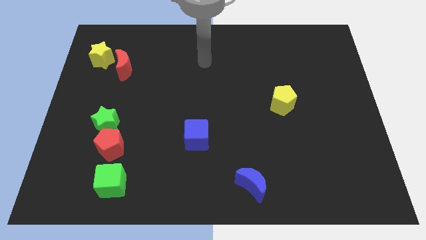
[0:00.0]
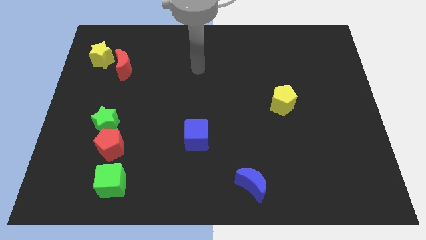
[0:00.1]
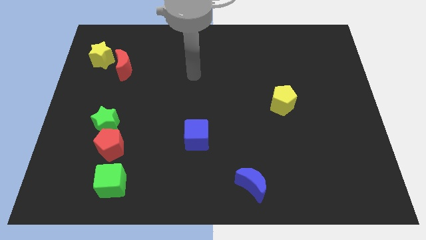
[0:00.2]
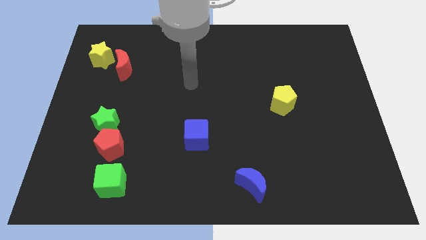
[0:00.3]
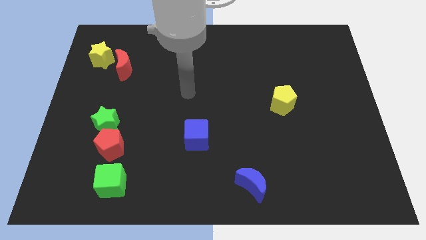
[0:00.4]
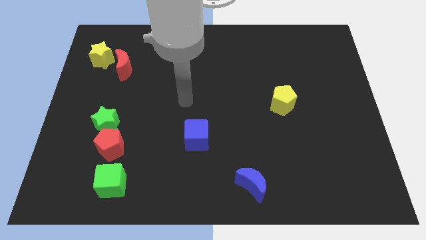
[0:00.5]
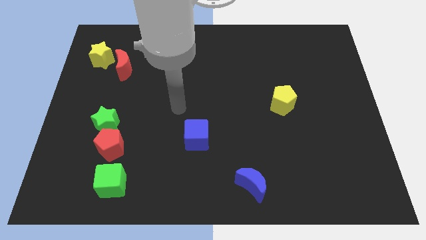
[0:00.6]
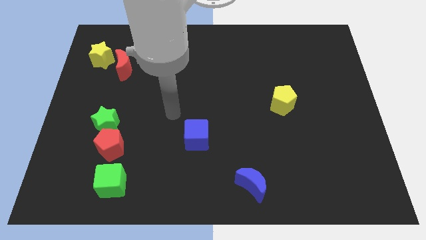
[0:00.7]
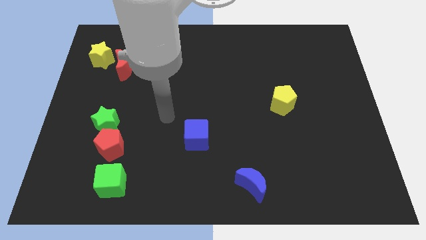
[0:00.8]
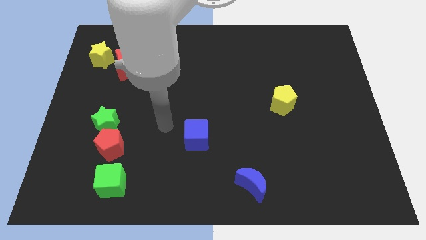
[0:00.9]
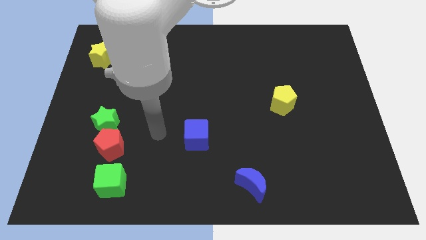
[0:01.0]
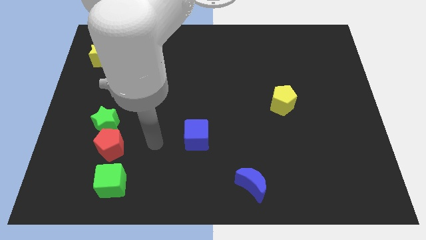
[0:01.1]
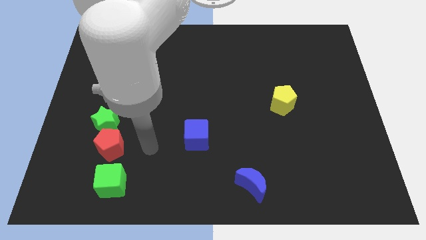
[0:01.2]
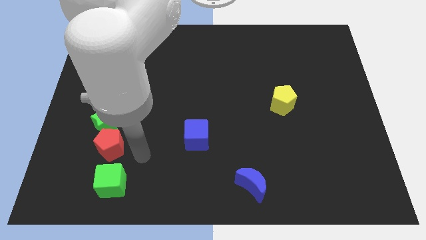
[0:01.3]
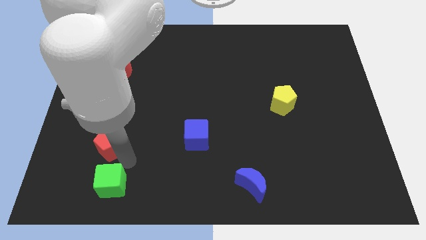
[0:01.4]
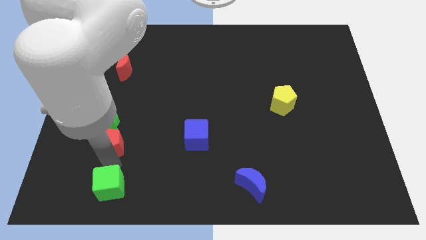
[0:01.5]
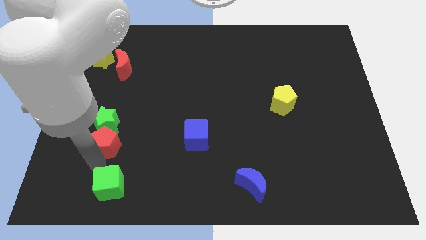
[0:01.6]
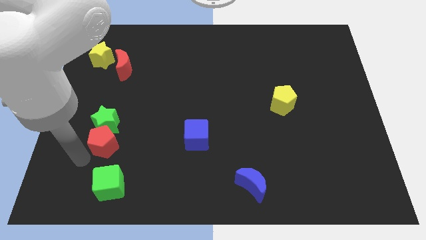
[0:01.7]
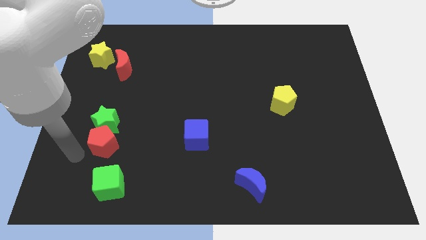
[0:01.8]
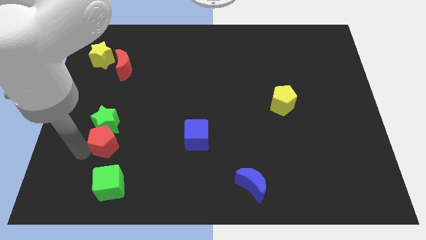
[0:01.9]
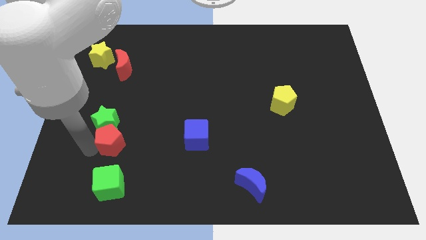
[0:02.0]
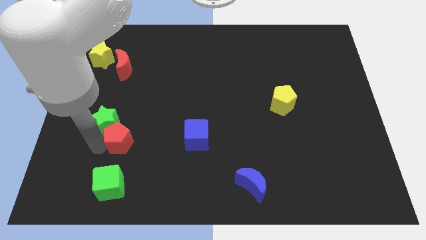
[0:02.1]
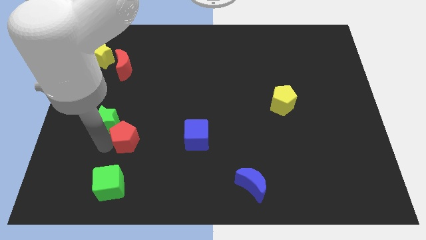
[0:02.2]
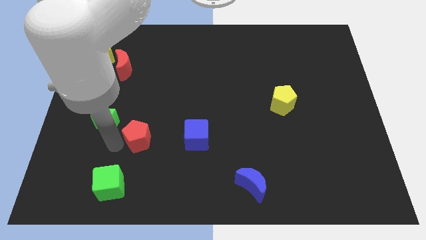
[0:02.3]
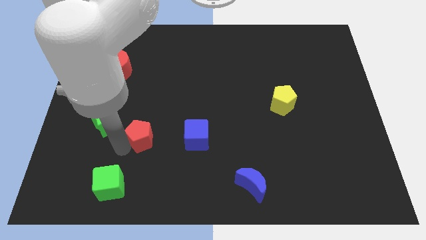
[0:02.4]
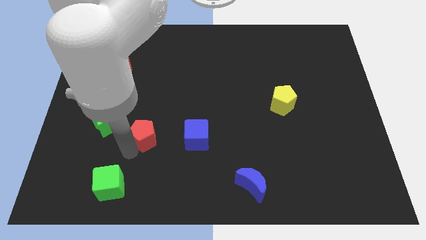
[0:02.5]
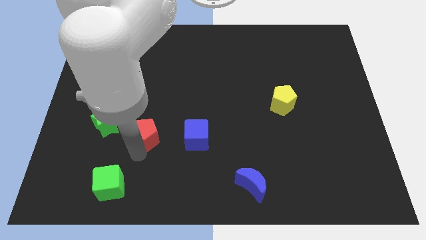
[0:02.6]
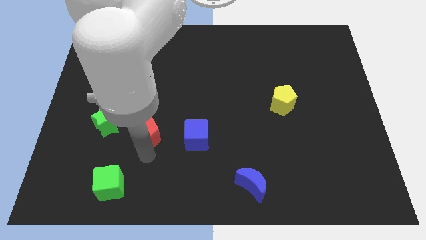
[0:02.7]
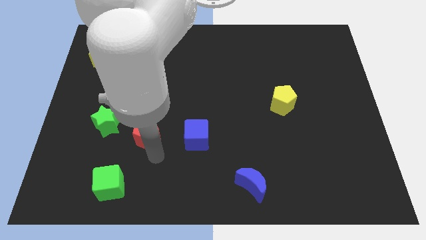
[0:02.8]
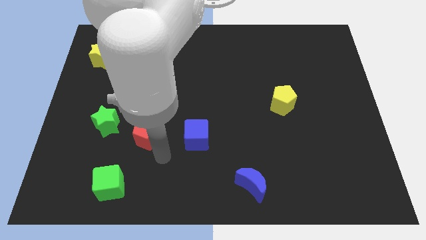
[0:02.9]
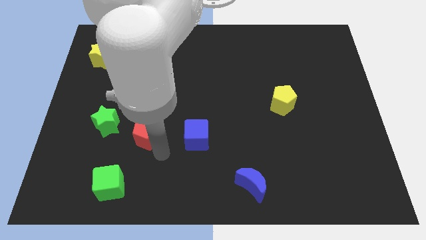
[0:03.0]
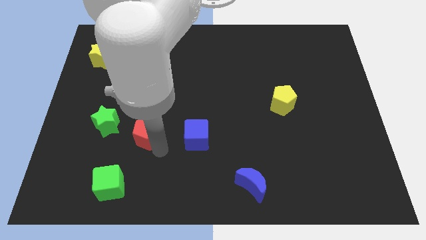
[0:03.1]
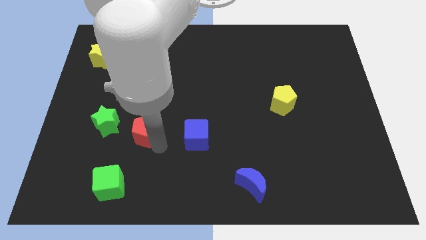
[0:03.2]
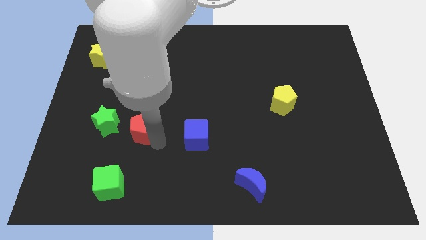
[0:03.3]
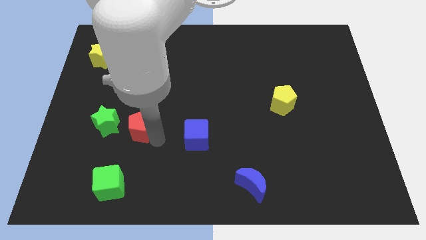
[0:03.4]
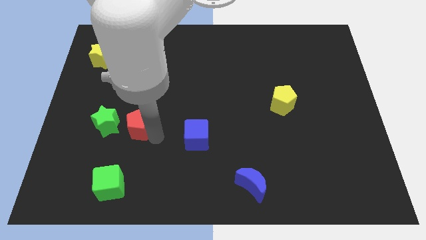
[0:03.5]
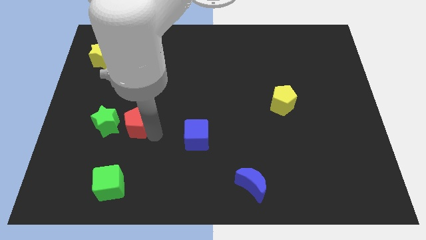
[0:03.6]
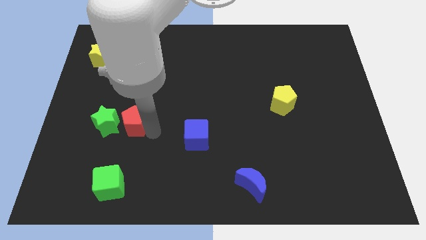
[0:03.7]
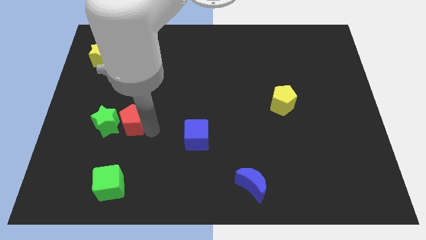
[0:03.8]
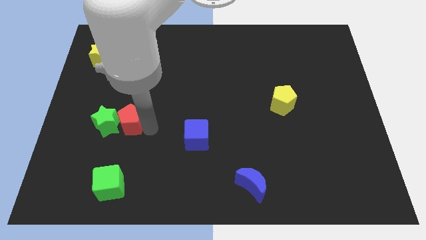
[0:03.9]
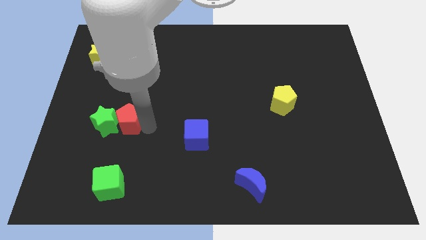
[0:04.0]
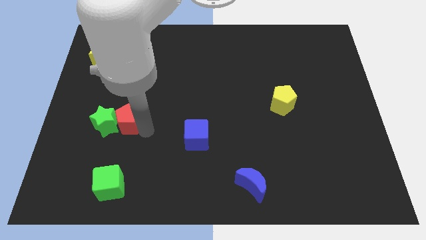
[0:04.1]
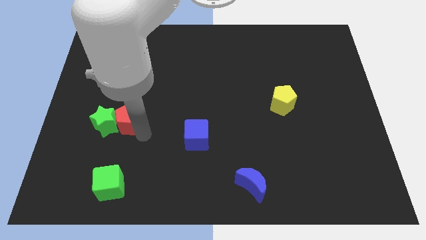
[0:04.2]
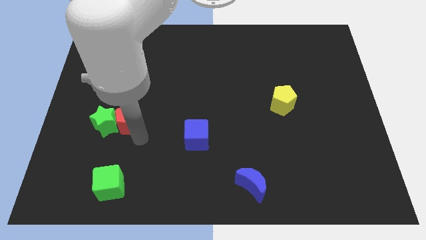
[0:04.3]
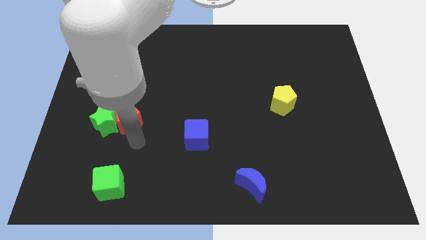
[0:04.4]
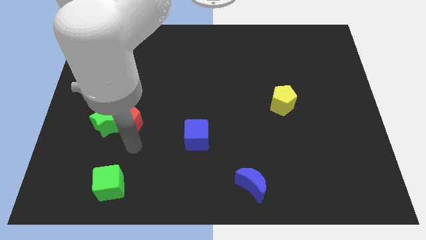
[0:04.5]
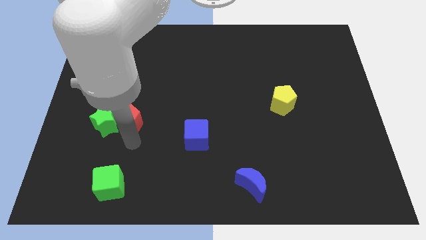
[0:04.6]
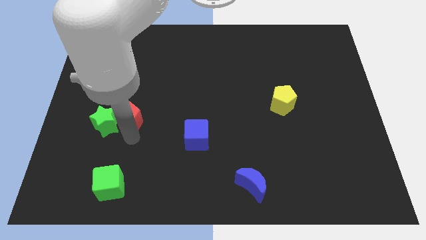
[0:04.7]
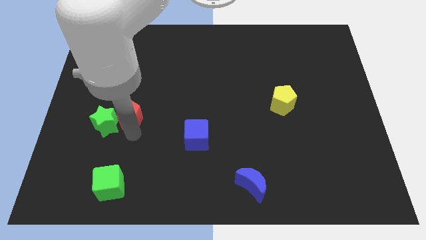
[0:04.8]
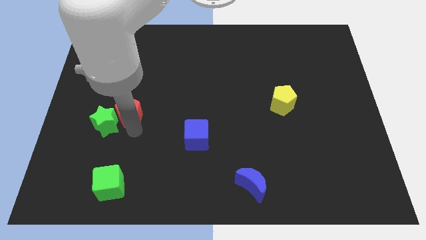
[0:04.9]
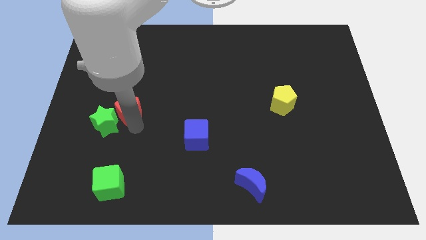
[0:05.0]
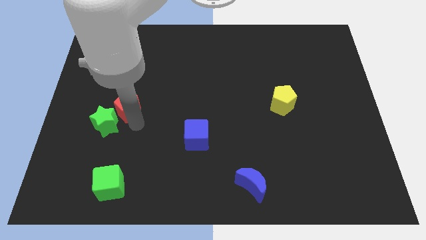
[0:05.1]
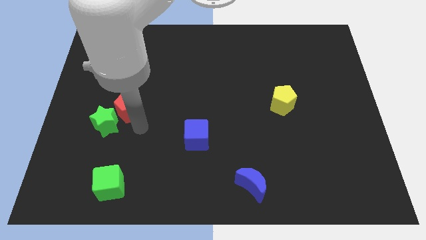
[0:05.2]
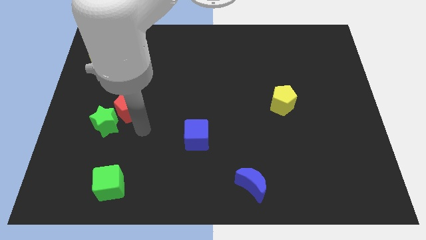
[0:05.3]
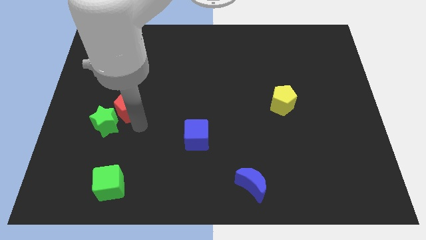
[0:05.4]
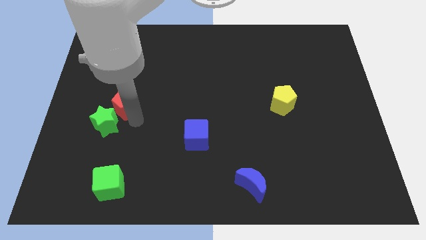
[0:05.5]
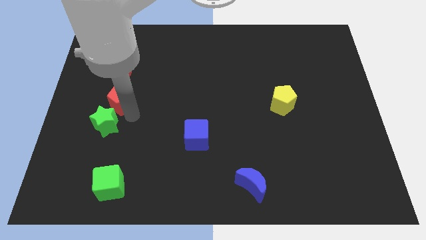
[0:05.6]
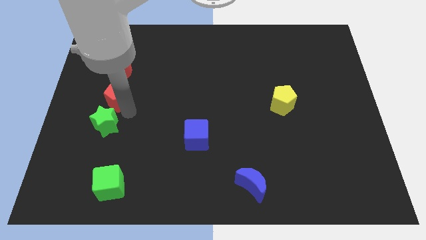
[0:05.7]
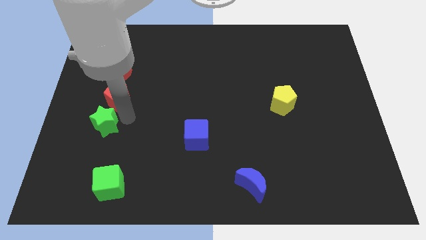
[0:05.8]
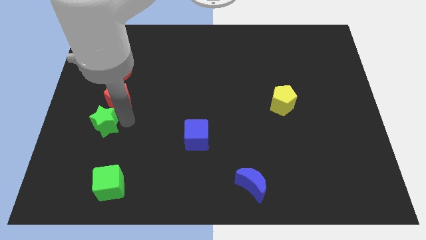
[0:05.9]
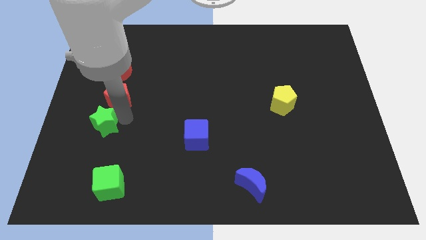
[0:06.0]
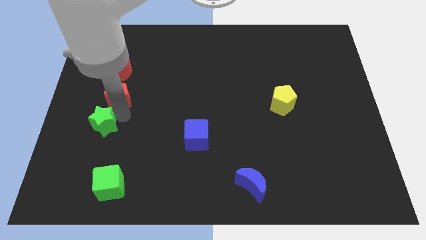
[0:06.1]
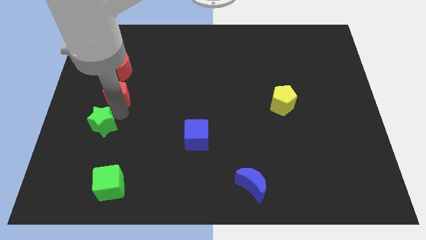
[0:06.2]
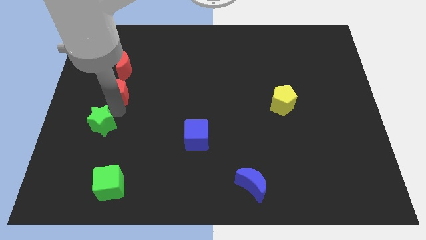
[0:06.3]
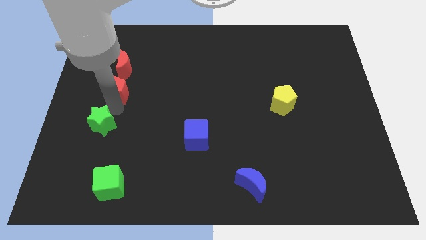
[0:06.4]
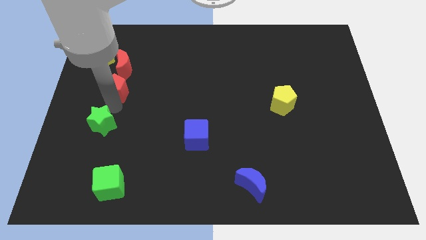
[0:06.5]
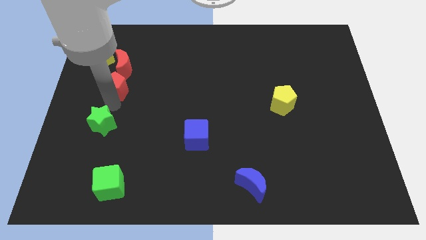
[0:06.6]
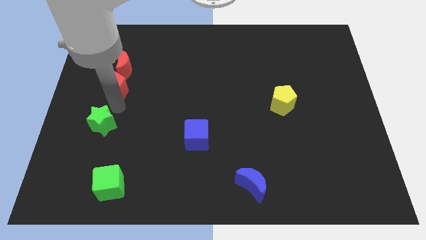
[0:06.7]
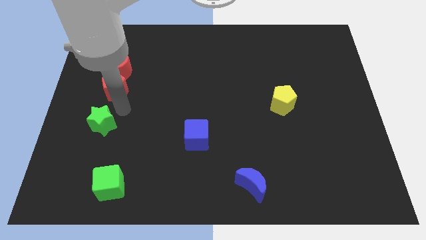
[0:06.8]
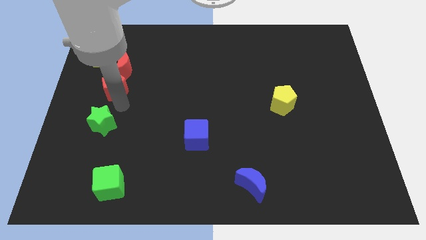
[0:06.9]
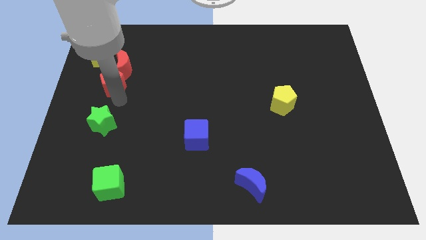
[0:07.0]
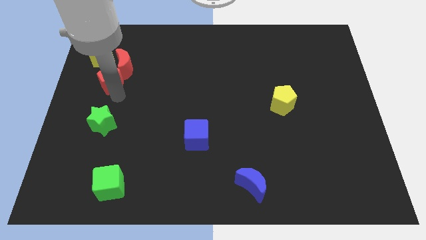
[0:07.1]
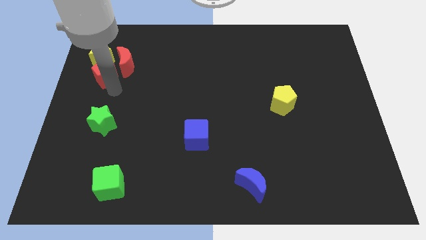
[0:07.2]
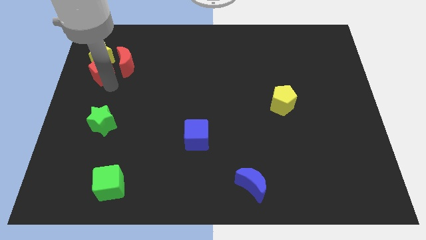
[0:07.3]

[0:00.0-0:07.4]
push the red pentagon towards the yellow star
